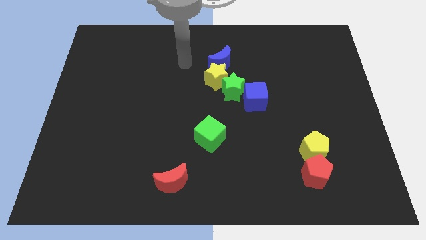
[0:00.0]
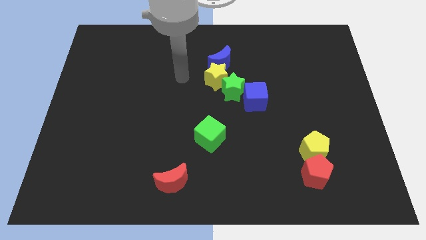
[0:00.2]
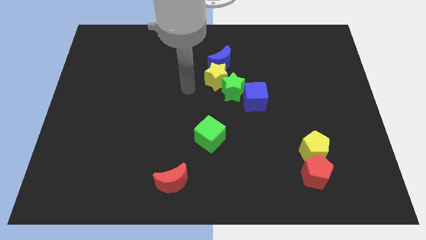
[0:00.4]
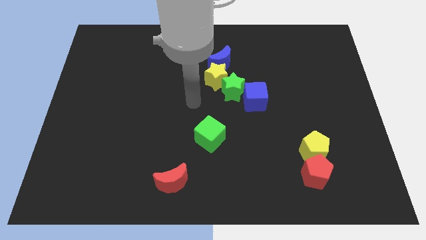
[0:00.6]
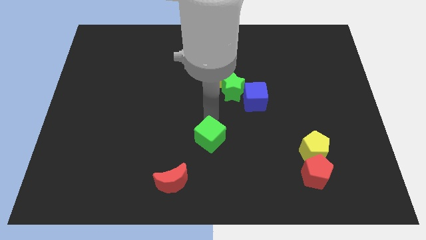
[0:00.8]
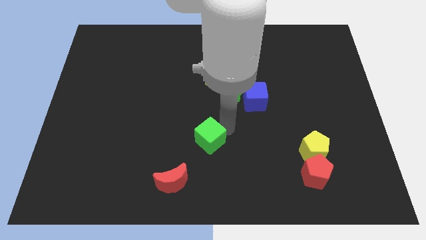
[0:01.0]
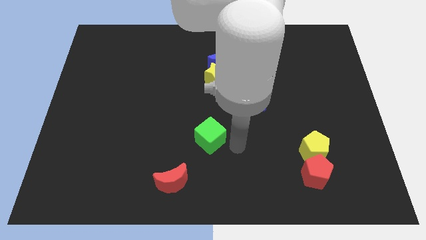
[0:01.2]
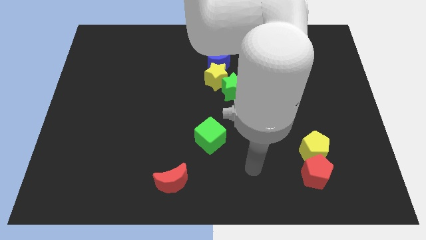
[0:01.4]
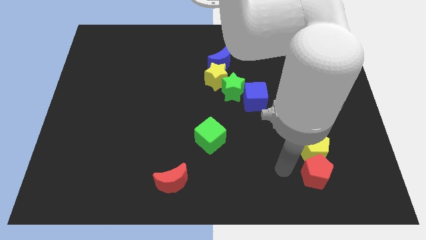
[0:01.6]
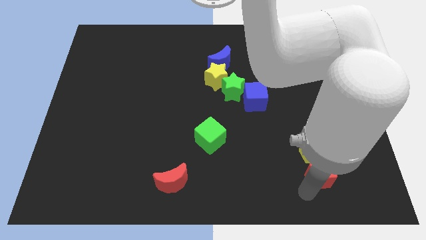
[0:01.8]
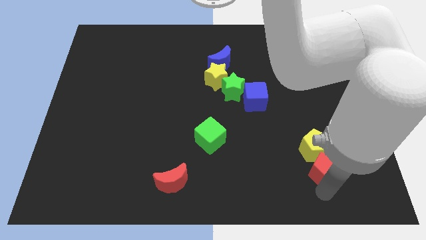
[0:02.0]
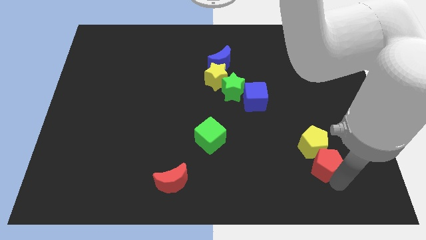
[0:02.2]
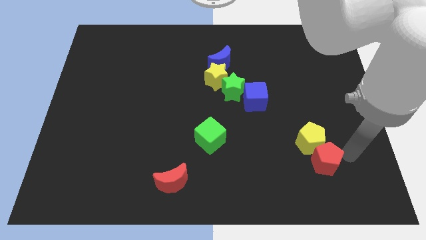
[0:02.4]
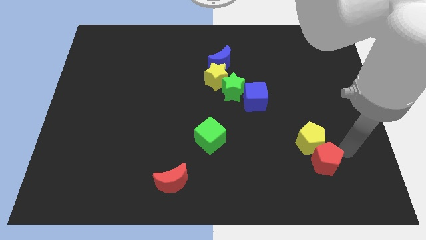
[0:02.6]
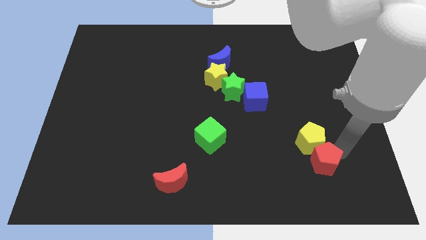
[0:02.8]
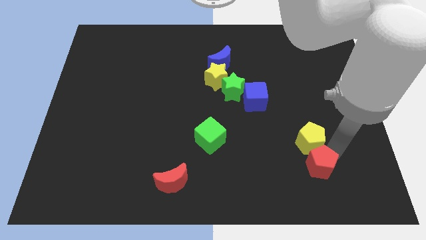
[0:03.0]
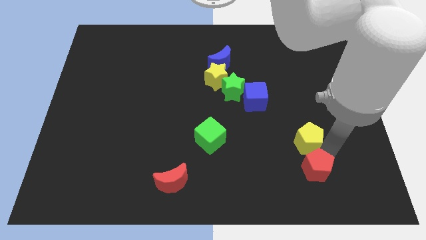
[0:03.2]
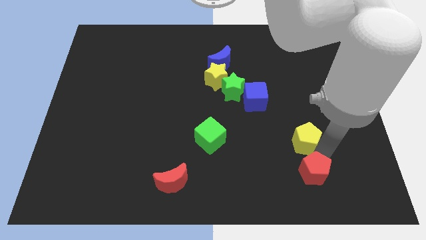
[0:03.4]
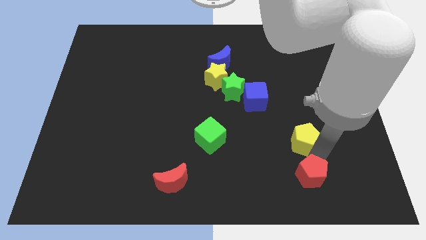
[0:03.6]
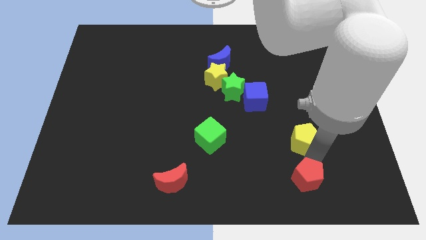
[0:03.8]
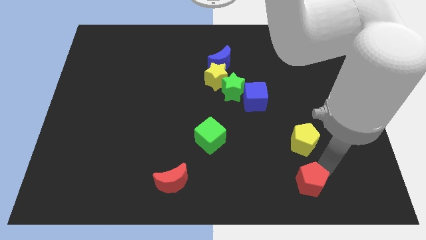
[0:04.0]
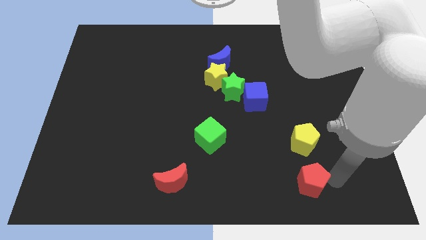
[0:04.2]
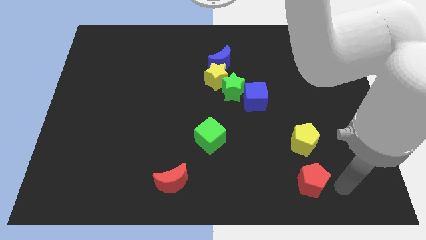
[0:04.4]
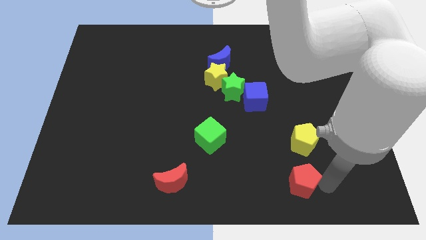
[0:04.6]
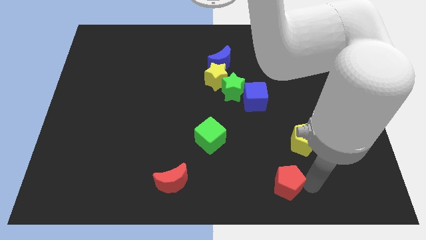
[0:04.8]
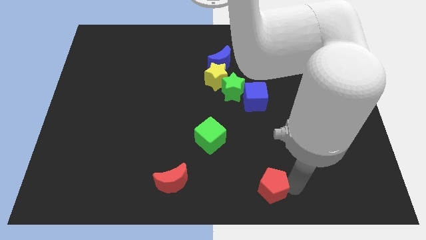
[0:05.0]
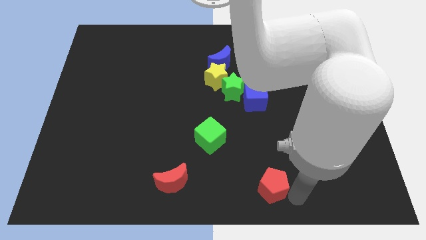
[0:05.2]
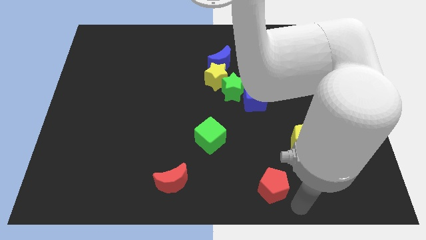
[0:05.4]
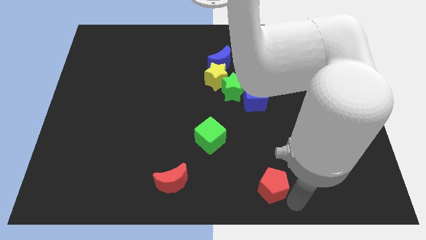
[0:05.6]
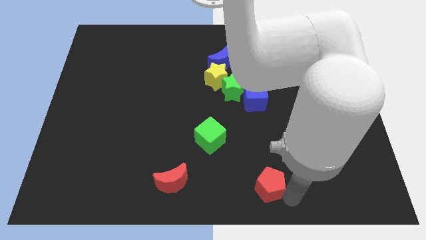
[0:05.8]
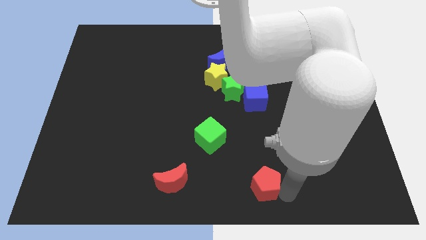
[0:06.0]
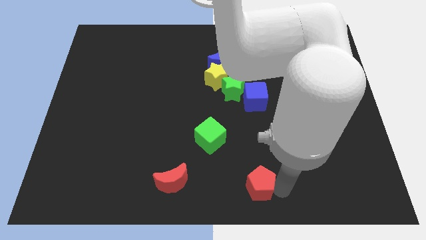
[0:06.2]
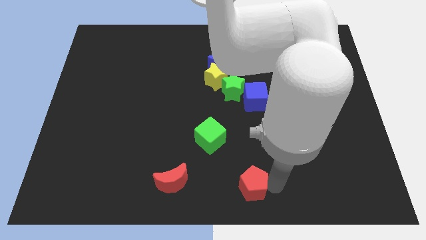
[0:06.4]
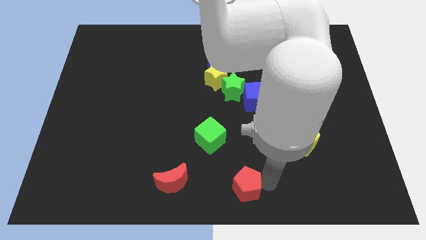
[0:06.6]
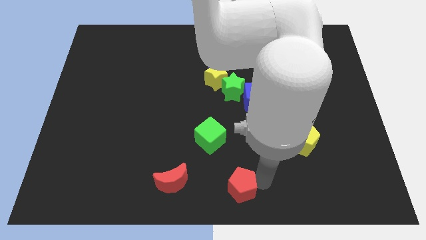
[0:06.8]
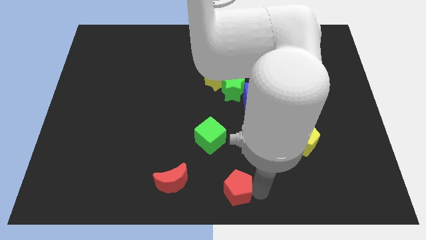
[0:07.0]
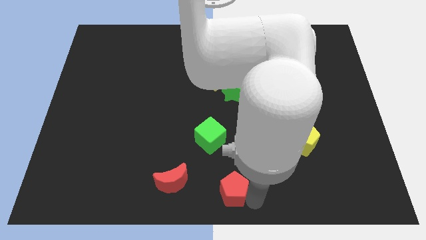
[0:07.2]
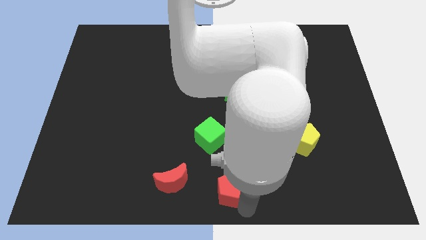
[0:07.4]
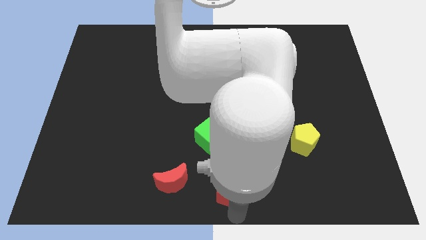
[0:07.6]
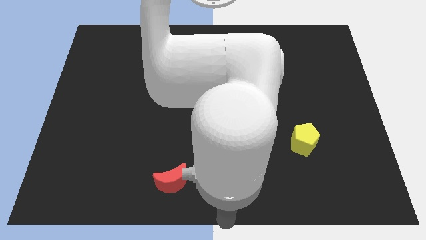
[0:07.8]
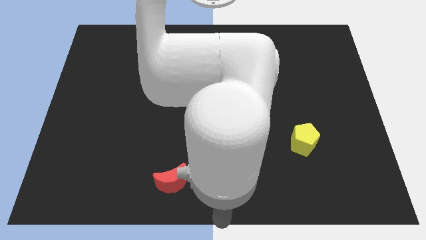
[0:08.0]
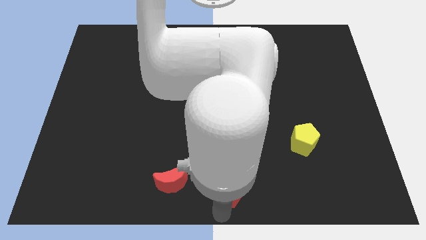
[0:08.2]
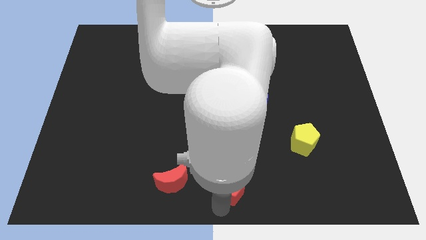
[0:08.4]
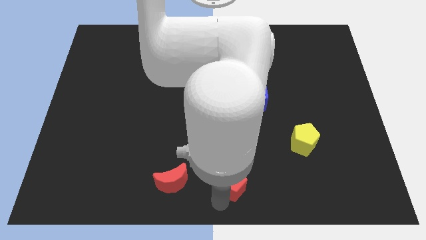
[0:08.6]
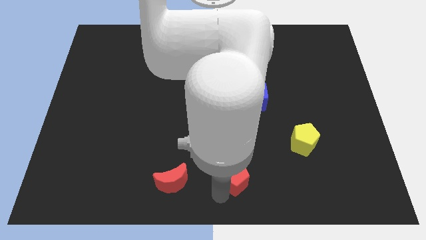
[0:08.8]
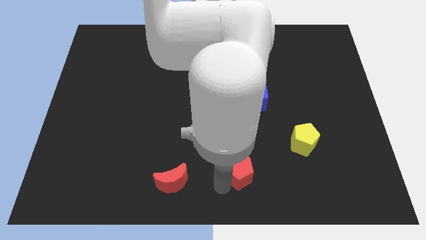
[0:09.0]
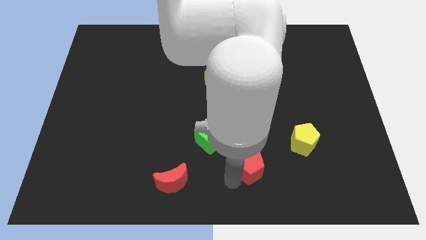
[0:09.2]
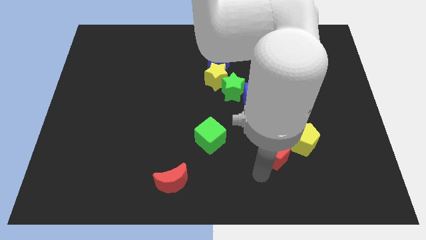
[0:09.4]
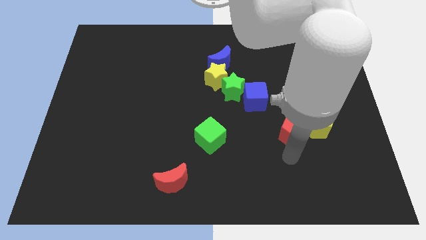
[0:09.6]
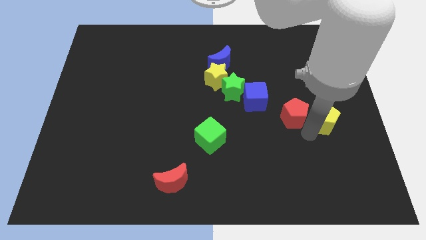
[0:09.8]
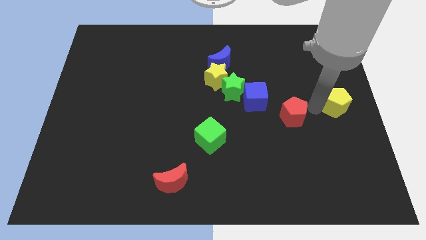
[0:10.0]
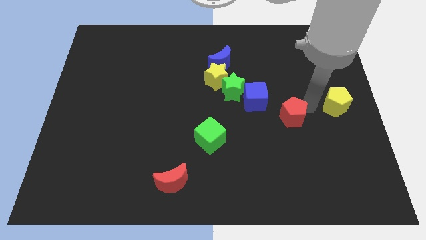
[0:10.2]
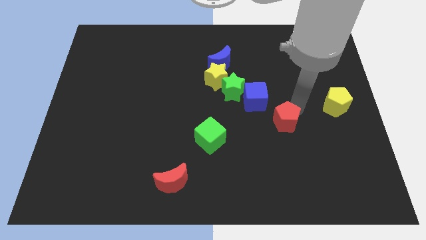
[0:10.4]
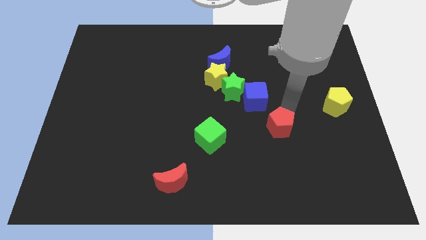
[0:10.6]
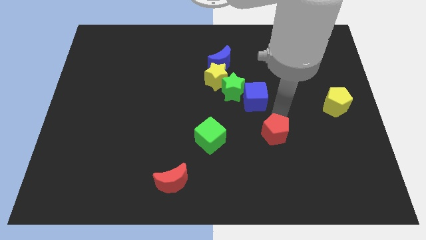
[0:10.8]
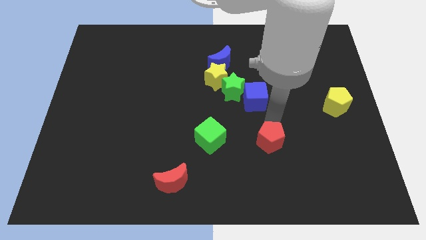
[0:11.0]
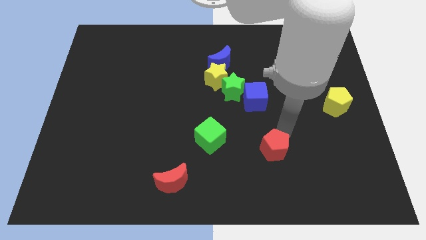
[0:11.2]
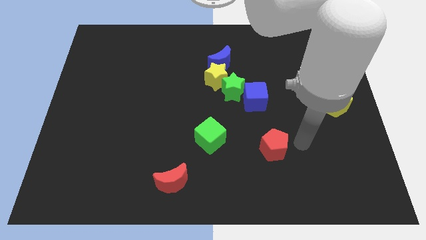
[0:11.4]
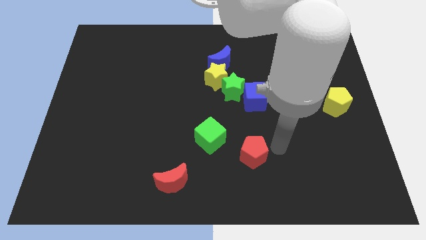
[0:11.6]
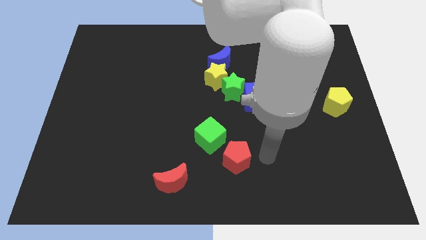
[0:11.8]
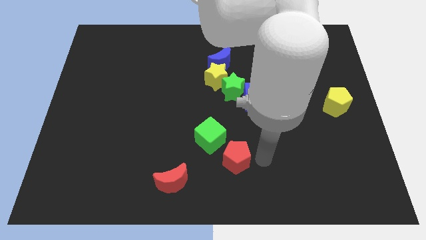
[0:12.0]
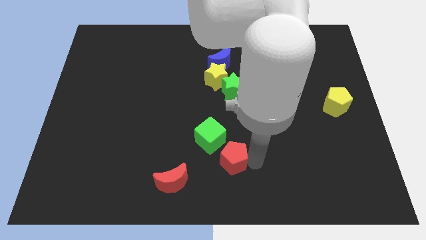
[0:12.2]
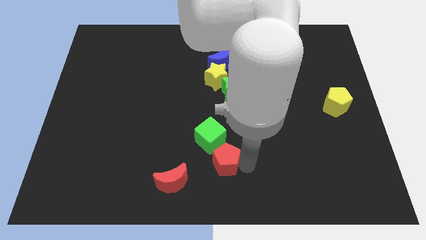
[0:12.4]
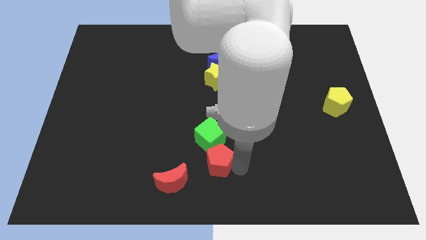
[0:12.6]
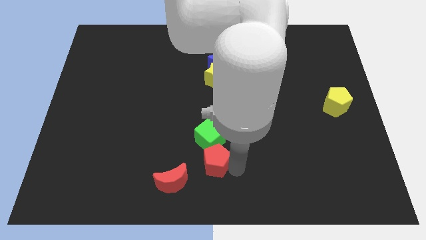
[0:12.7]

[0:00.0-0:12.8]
move the red pentagon to the left

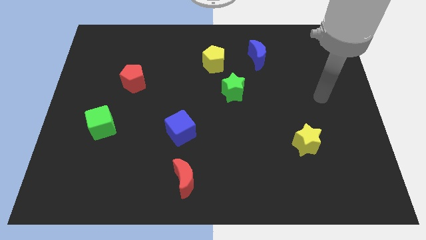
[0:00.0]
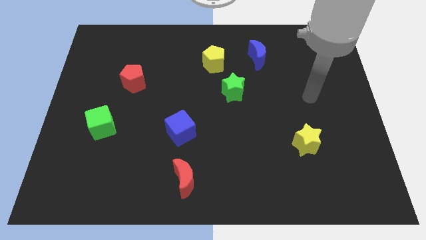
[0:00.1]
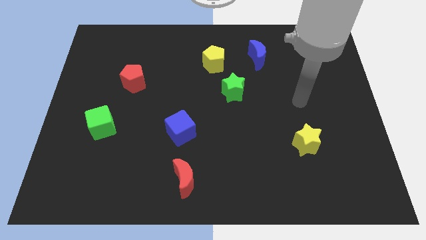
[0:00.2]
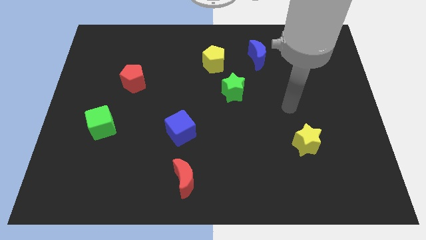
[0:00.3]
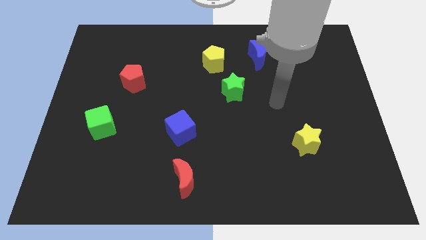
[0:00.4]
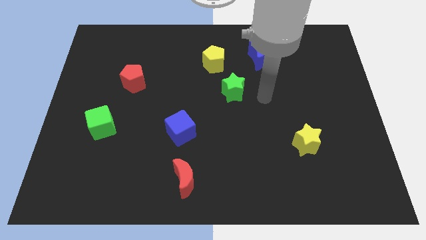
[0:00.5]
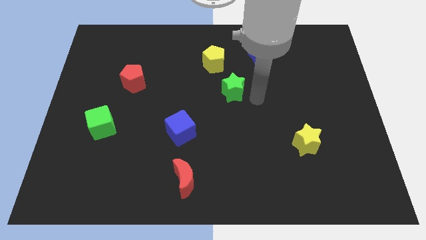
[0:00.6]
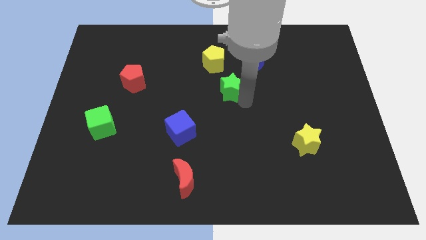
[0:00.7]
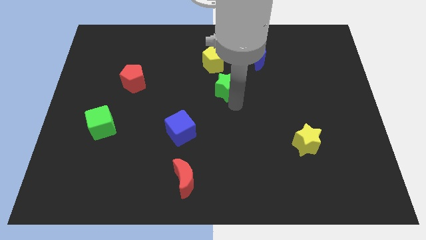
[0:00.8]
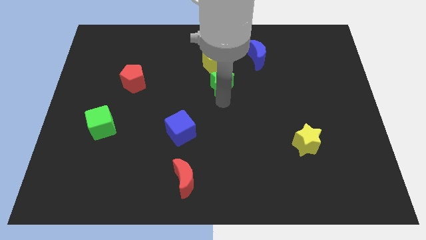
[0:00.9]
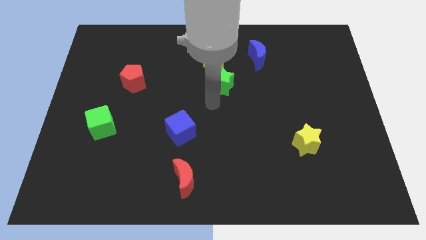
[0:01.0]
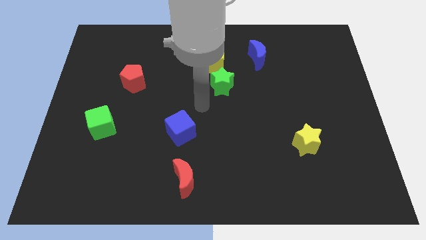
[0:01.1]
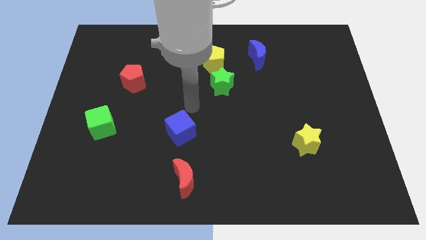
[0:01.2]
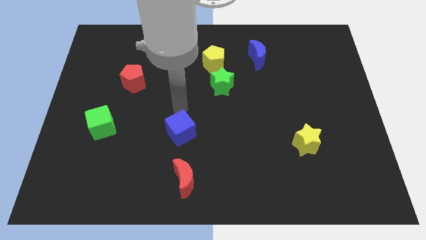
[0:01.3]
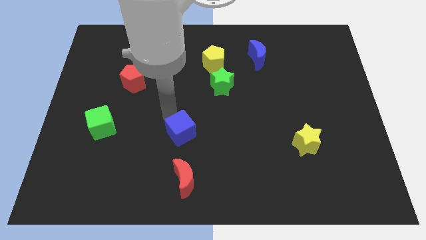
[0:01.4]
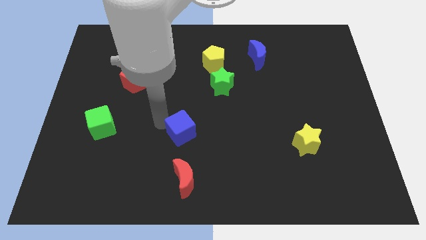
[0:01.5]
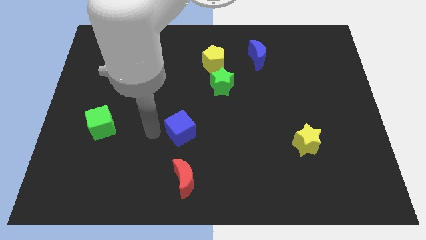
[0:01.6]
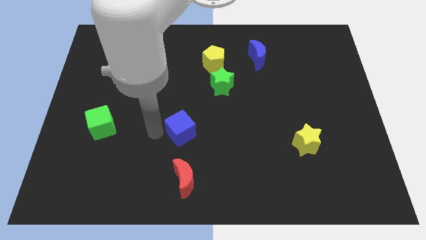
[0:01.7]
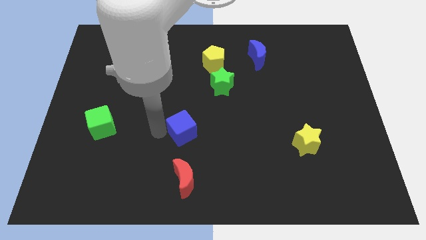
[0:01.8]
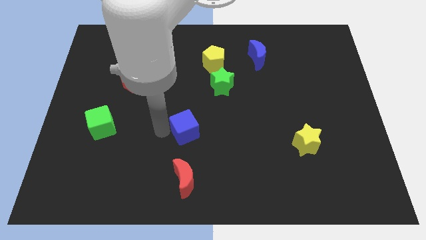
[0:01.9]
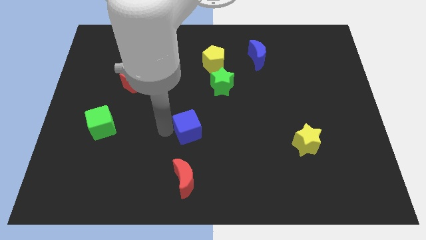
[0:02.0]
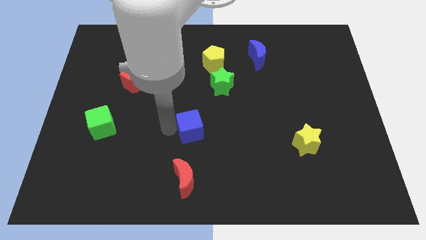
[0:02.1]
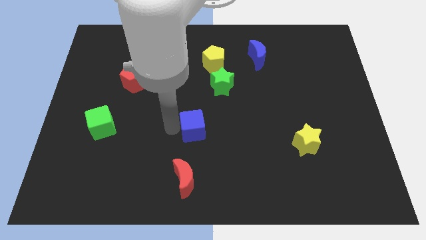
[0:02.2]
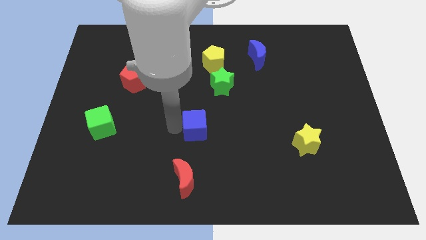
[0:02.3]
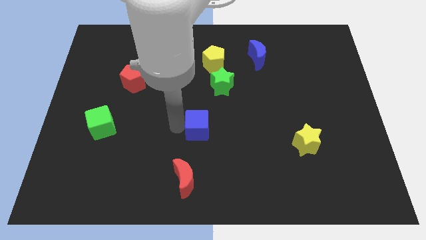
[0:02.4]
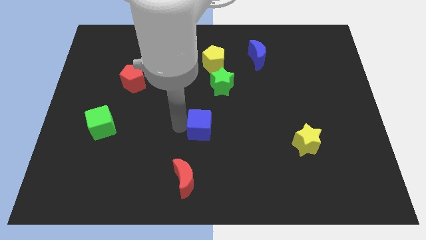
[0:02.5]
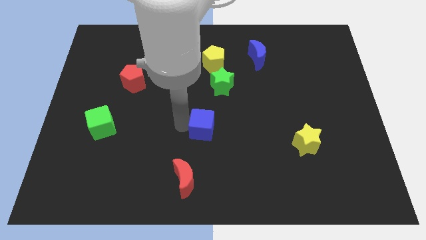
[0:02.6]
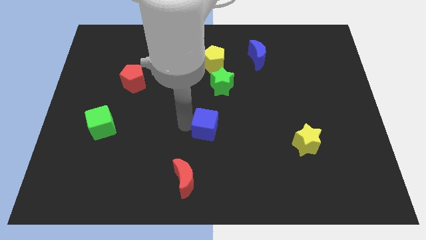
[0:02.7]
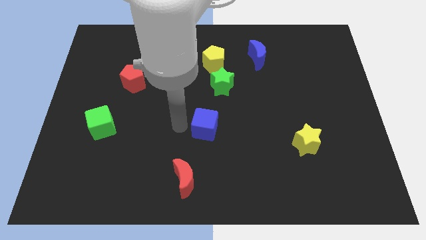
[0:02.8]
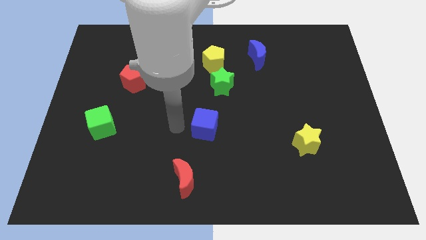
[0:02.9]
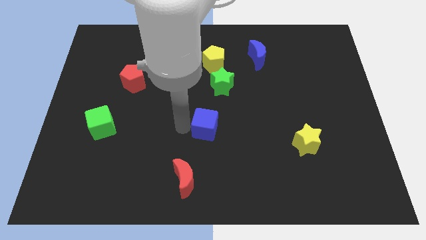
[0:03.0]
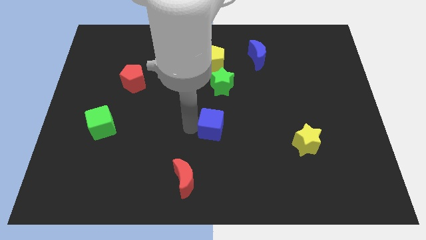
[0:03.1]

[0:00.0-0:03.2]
move the blue cube slightly right
